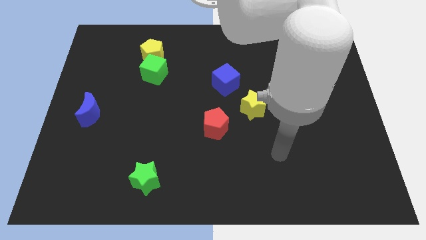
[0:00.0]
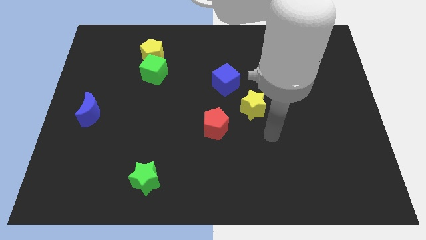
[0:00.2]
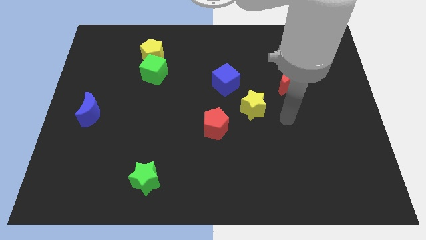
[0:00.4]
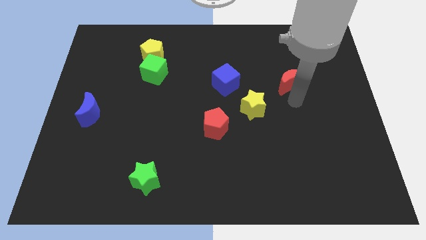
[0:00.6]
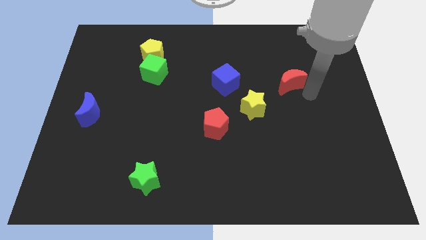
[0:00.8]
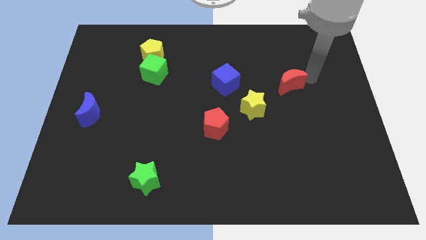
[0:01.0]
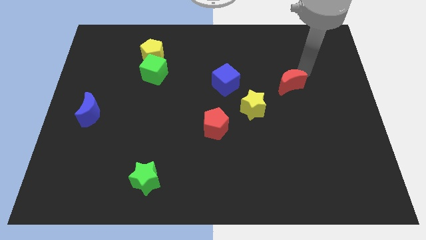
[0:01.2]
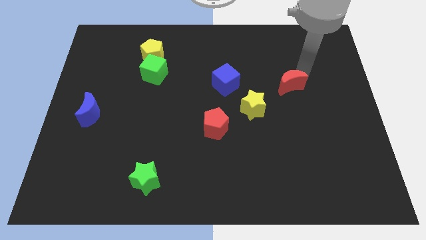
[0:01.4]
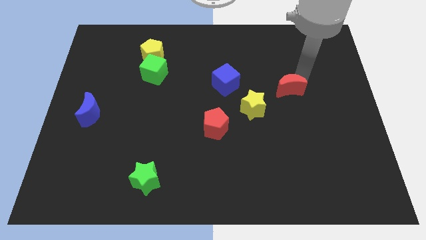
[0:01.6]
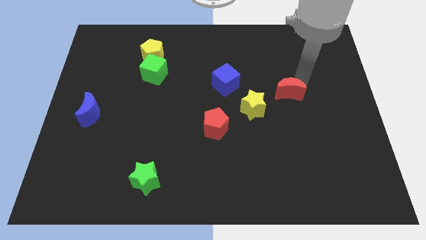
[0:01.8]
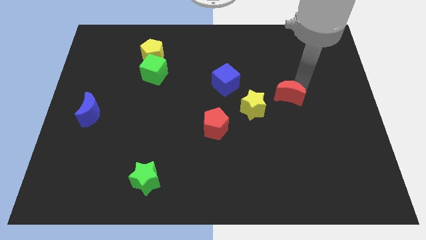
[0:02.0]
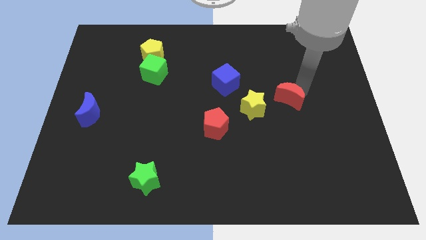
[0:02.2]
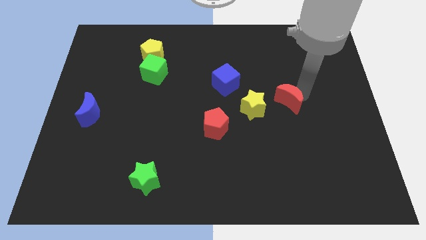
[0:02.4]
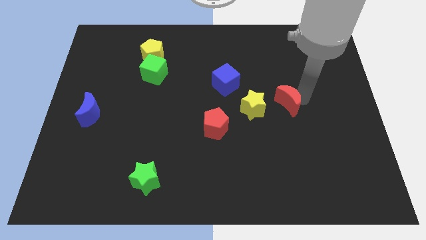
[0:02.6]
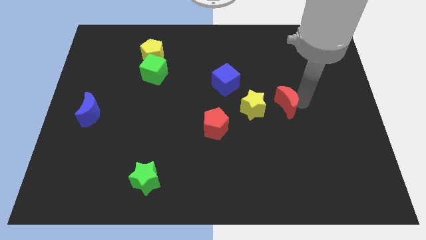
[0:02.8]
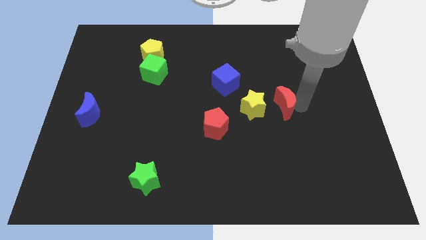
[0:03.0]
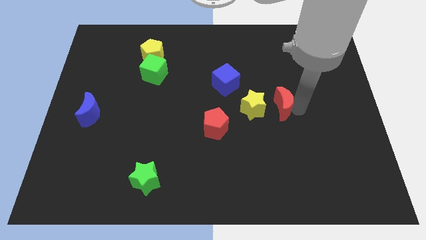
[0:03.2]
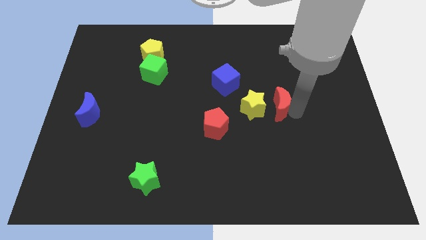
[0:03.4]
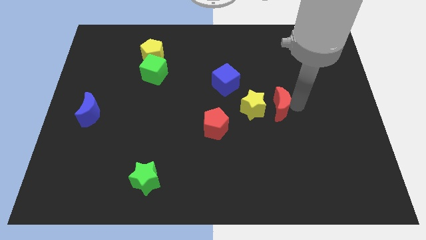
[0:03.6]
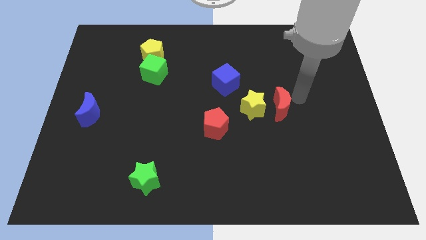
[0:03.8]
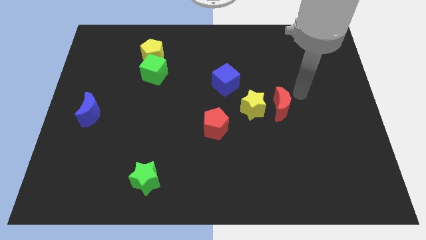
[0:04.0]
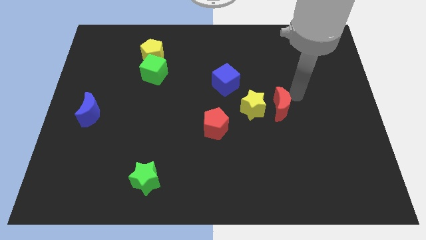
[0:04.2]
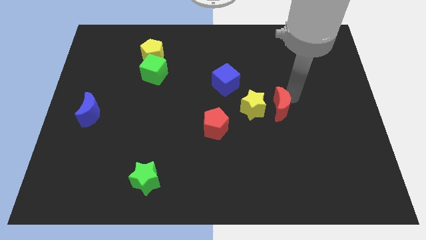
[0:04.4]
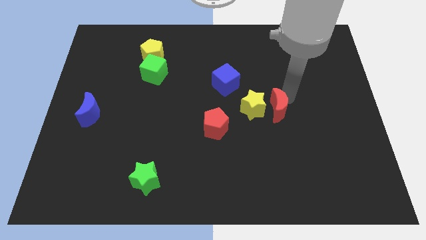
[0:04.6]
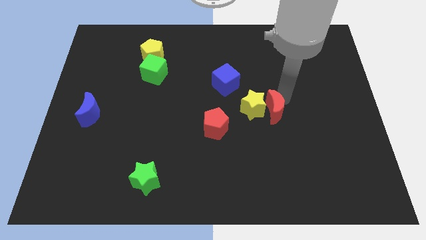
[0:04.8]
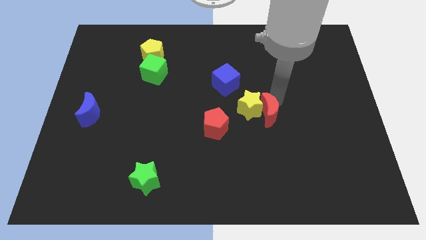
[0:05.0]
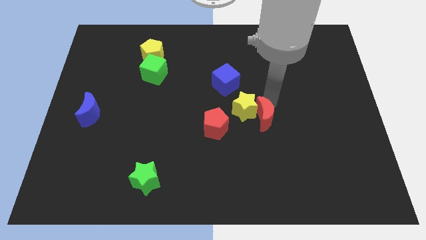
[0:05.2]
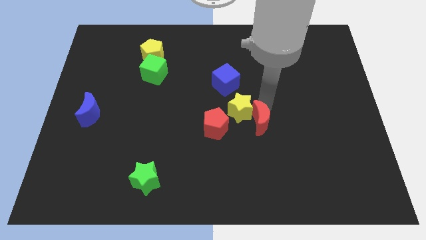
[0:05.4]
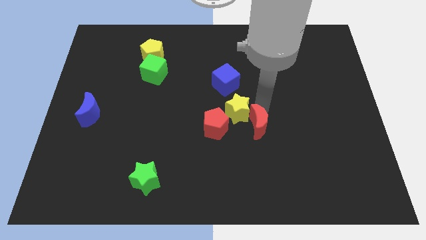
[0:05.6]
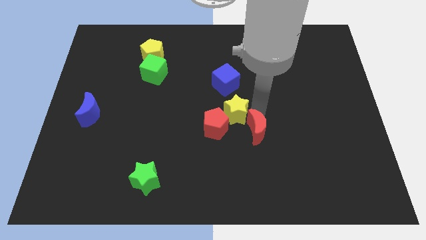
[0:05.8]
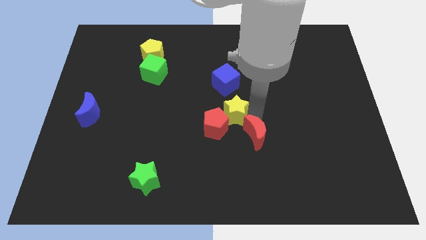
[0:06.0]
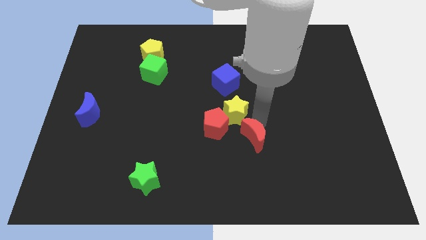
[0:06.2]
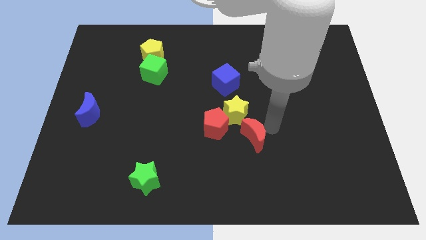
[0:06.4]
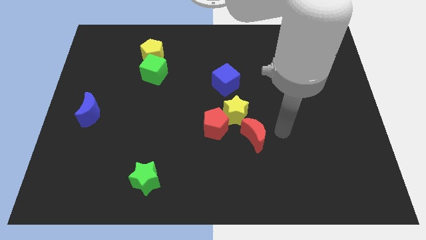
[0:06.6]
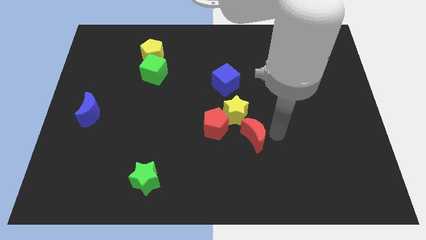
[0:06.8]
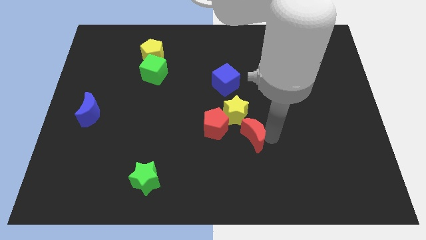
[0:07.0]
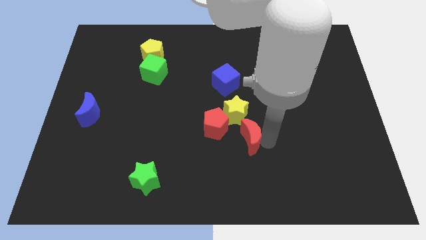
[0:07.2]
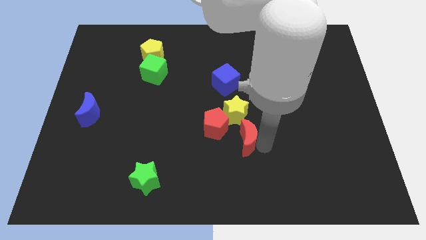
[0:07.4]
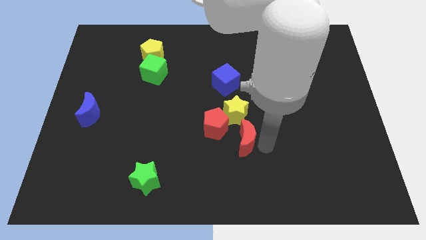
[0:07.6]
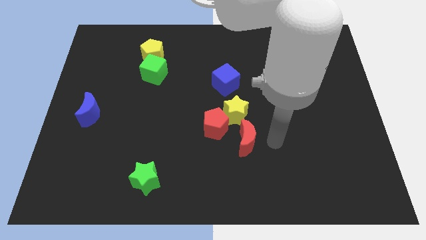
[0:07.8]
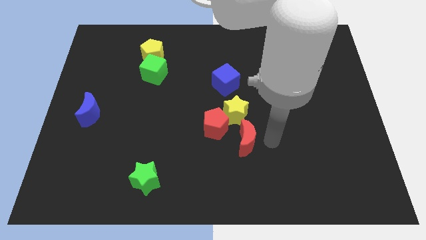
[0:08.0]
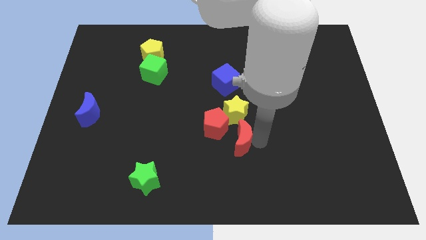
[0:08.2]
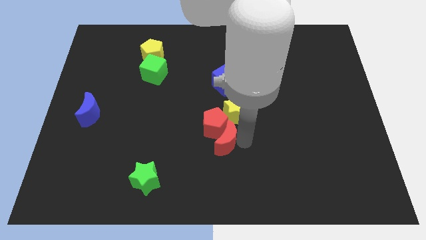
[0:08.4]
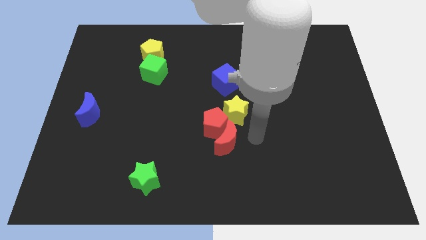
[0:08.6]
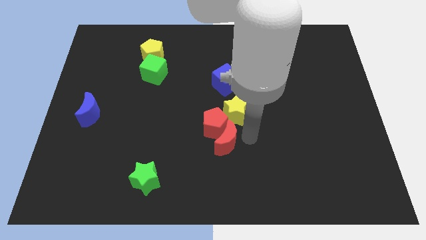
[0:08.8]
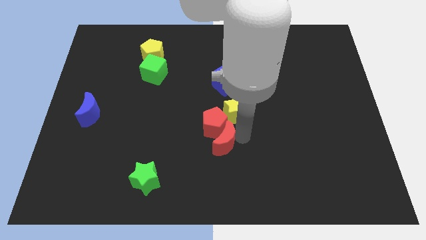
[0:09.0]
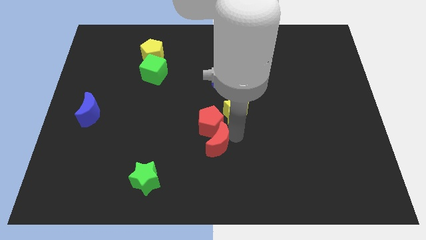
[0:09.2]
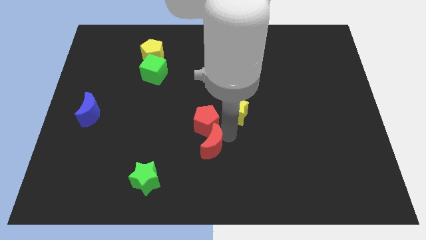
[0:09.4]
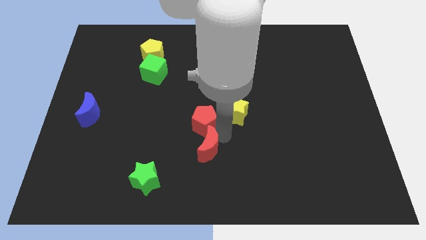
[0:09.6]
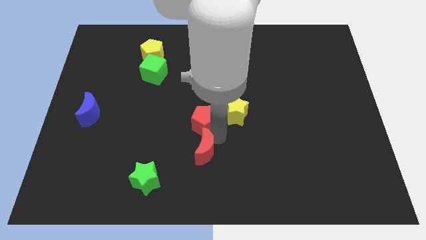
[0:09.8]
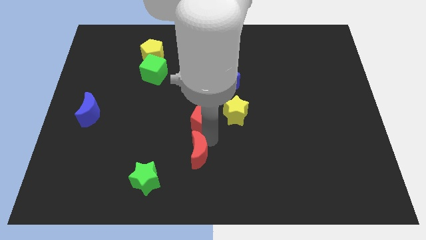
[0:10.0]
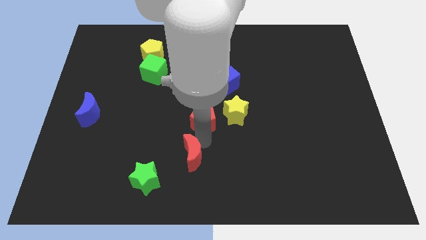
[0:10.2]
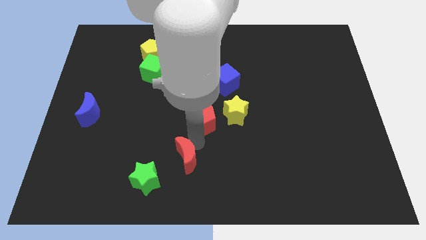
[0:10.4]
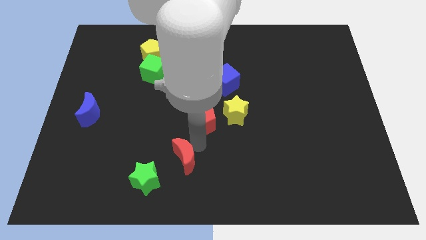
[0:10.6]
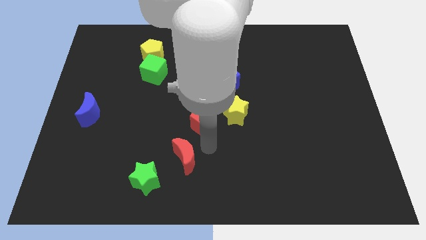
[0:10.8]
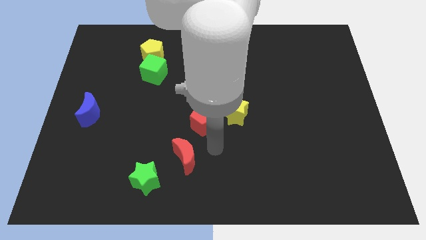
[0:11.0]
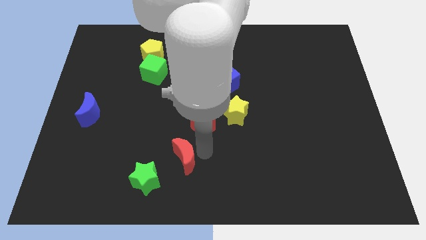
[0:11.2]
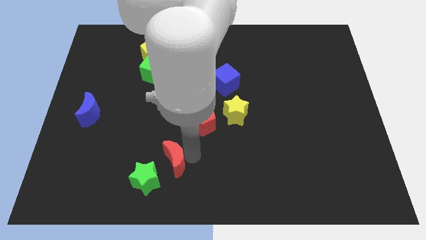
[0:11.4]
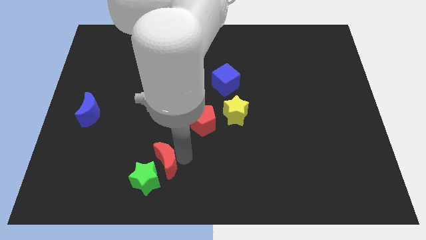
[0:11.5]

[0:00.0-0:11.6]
slide the red moon to the green star

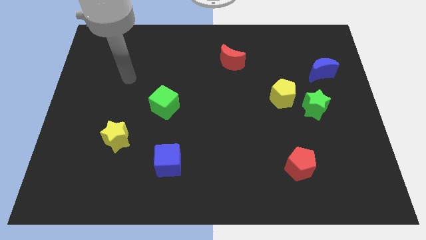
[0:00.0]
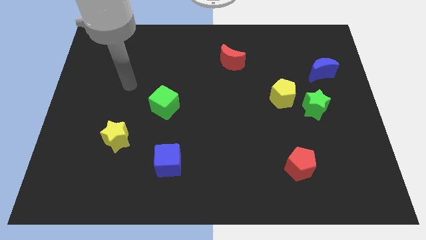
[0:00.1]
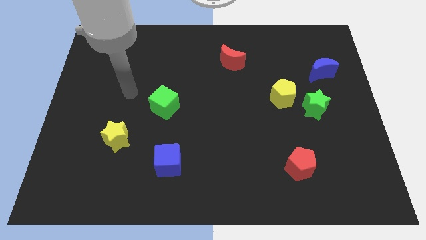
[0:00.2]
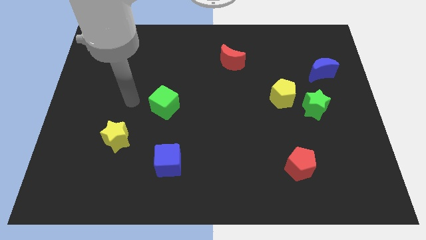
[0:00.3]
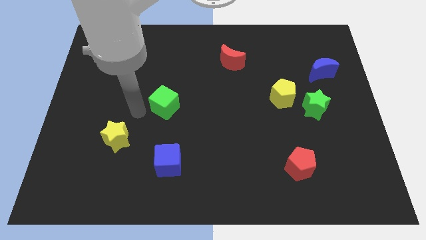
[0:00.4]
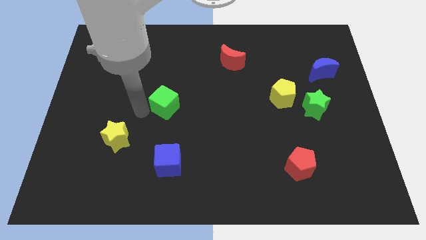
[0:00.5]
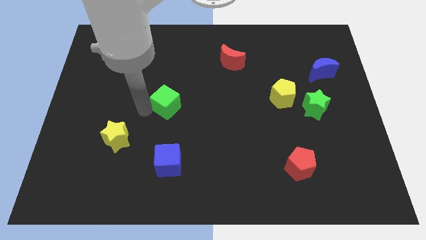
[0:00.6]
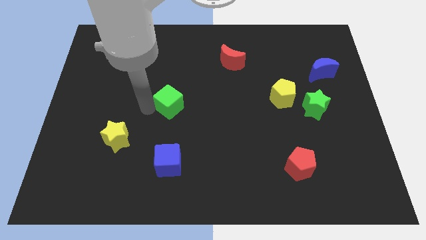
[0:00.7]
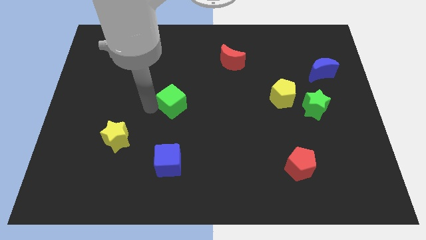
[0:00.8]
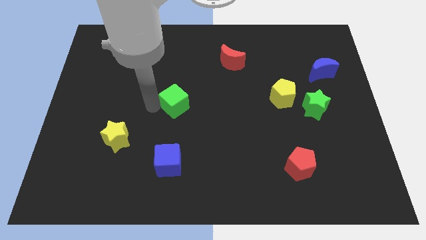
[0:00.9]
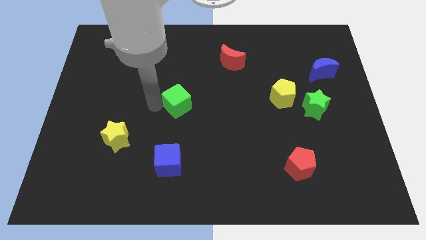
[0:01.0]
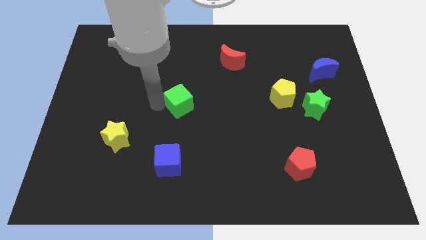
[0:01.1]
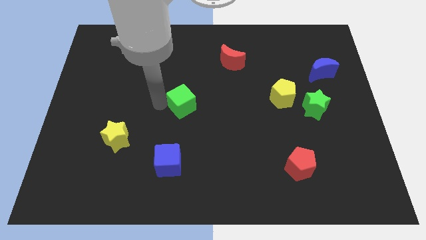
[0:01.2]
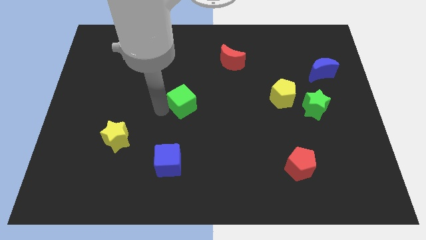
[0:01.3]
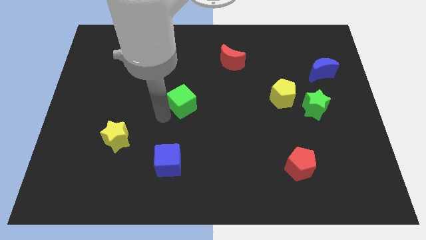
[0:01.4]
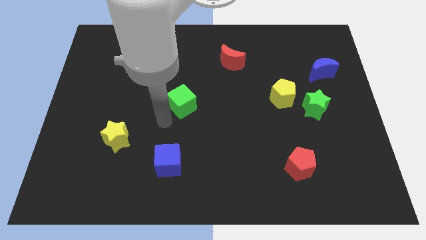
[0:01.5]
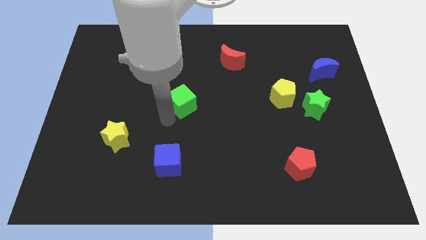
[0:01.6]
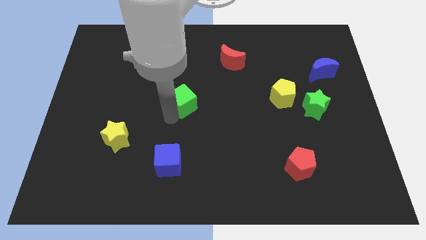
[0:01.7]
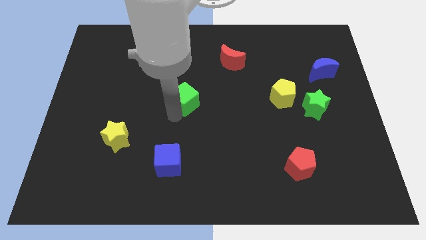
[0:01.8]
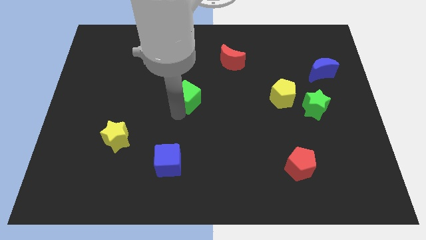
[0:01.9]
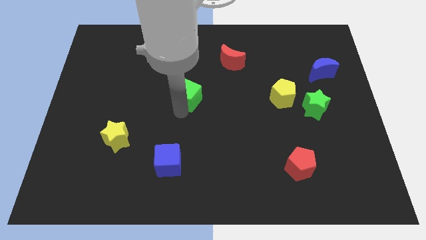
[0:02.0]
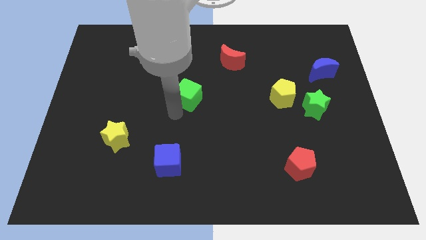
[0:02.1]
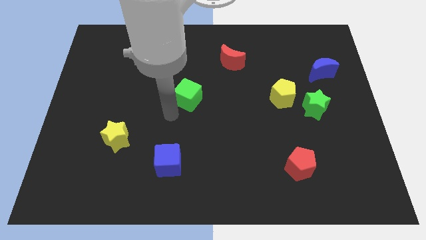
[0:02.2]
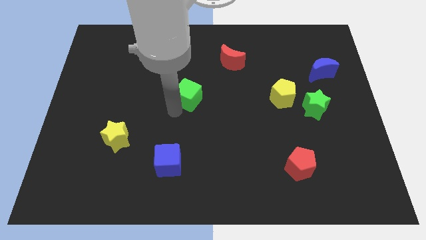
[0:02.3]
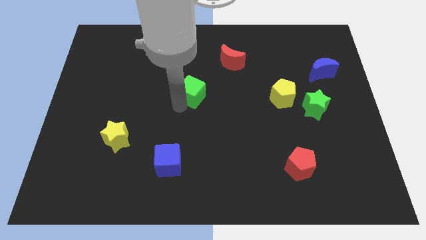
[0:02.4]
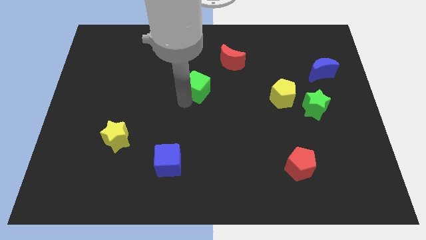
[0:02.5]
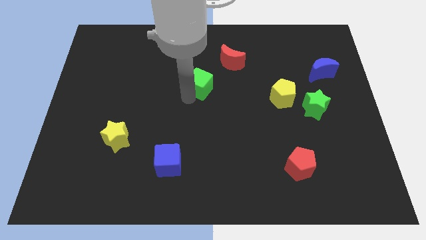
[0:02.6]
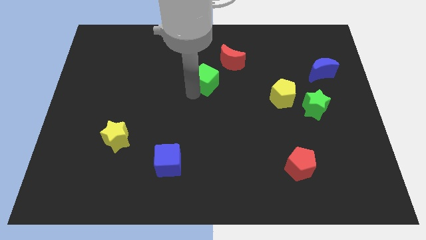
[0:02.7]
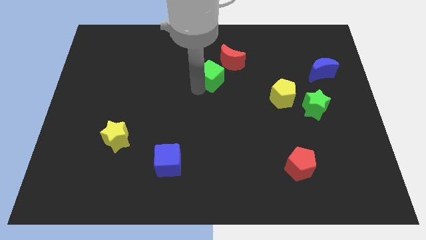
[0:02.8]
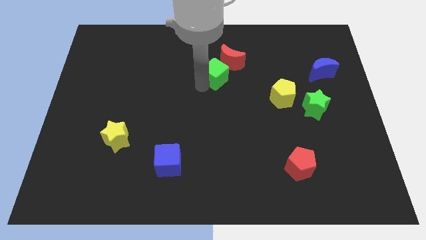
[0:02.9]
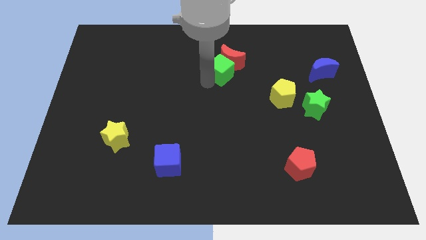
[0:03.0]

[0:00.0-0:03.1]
push the green cube towards the red moon
